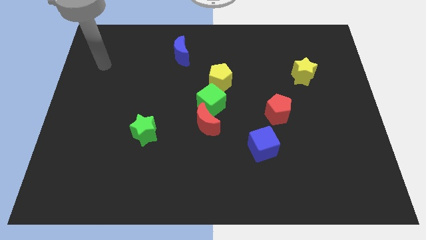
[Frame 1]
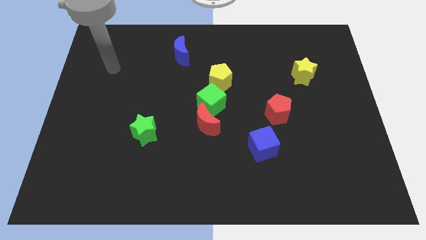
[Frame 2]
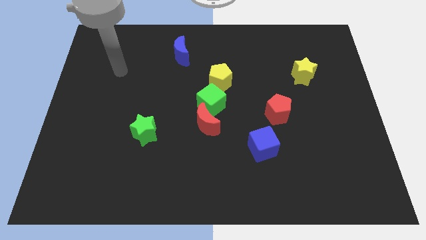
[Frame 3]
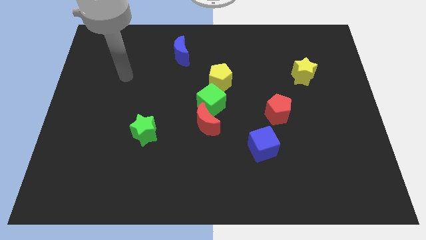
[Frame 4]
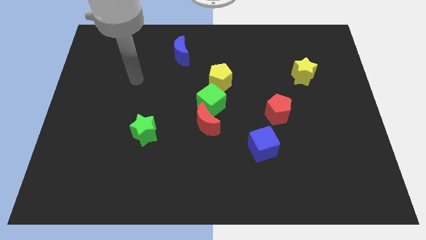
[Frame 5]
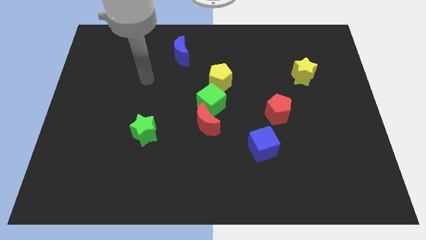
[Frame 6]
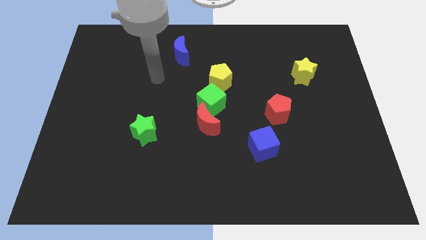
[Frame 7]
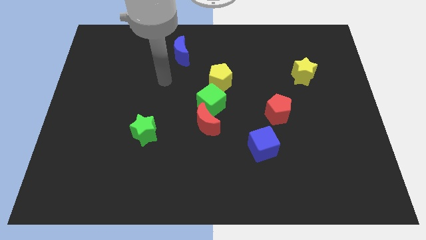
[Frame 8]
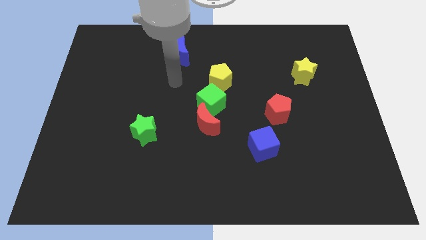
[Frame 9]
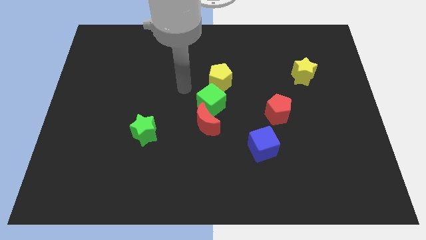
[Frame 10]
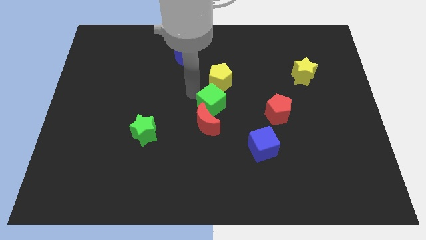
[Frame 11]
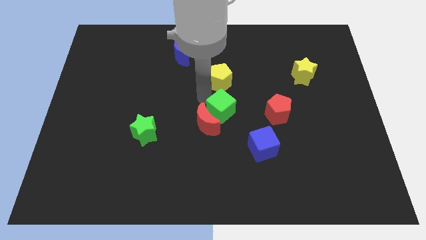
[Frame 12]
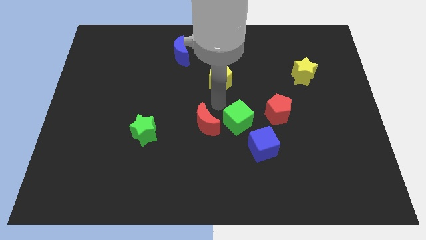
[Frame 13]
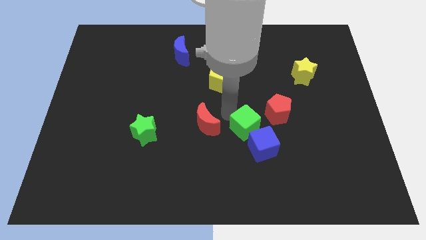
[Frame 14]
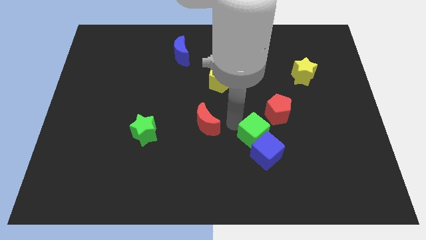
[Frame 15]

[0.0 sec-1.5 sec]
separate the red moon from the green cube

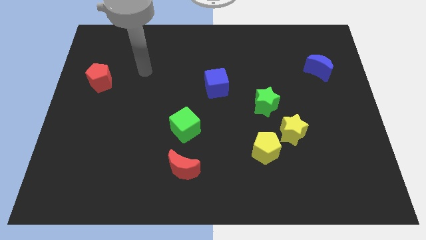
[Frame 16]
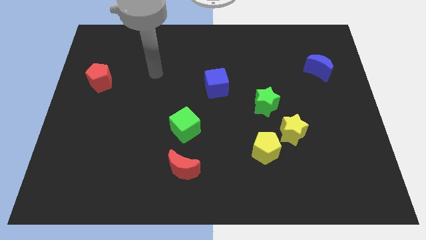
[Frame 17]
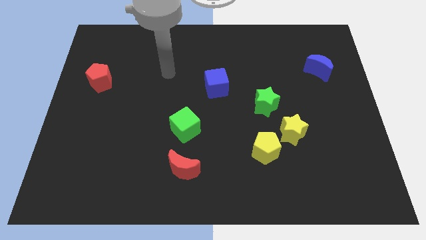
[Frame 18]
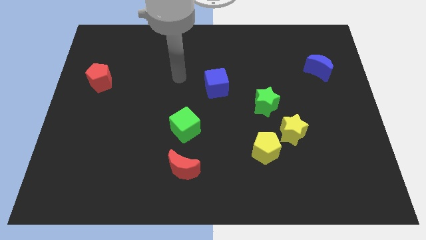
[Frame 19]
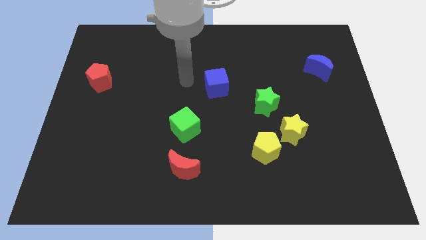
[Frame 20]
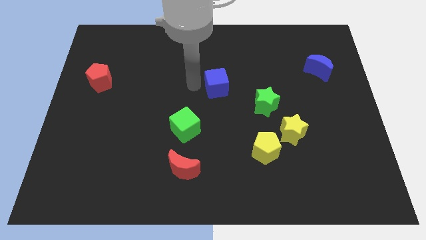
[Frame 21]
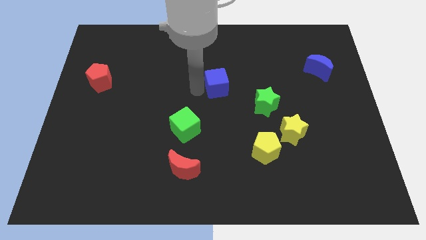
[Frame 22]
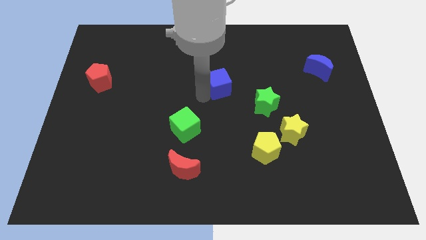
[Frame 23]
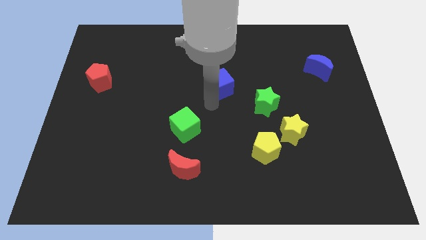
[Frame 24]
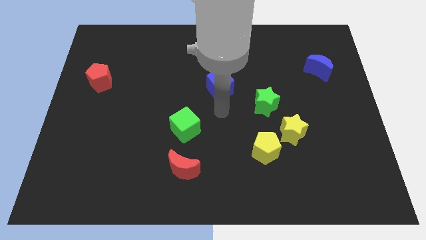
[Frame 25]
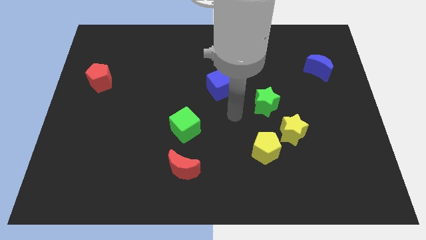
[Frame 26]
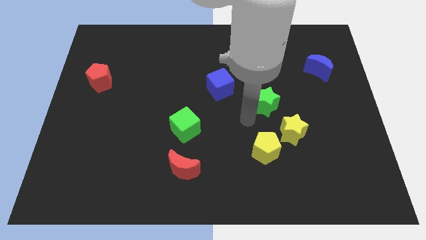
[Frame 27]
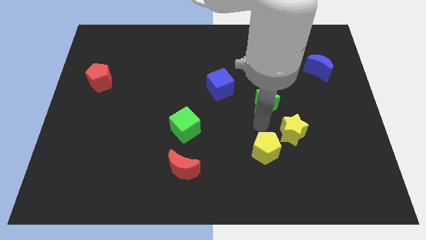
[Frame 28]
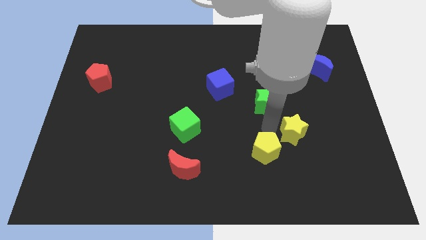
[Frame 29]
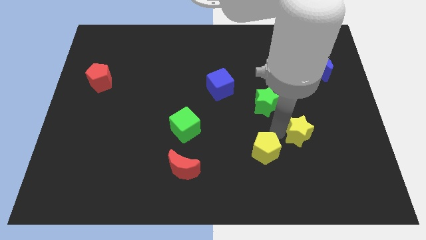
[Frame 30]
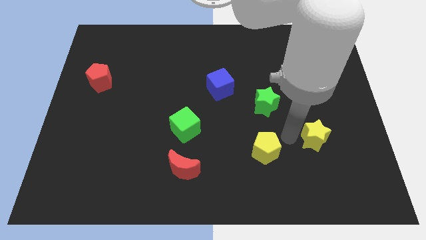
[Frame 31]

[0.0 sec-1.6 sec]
move the yellow pentagon away from the yellow star

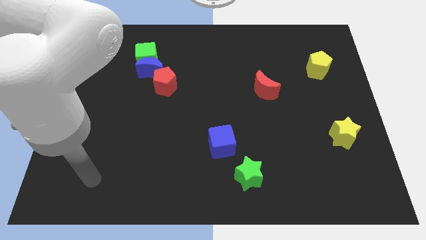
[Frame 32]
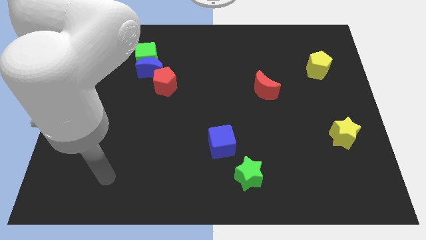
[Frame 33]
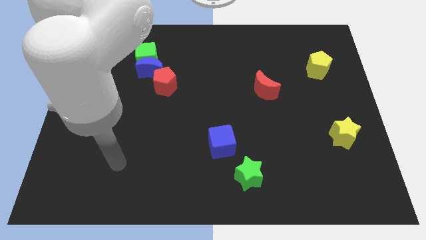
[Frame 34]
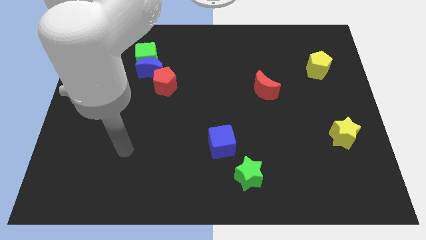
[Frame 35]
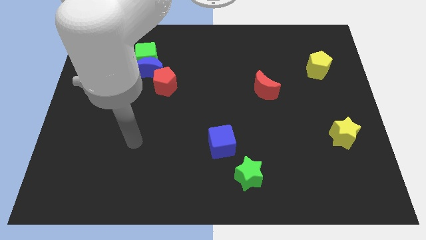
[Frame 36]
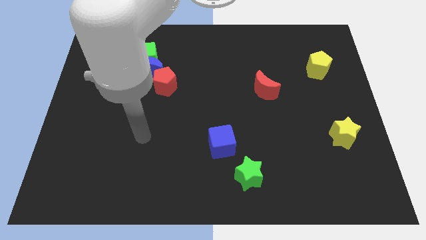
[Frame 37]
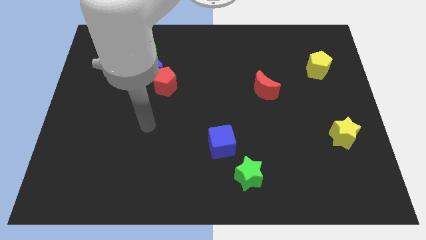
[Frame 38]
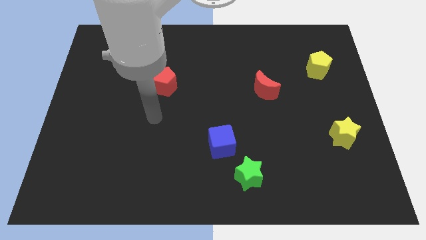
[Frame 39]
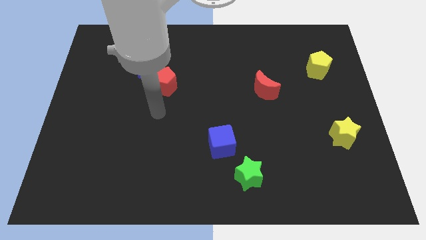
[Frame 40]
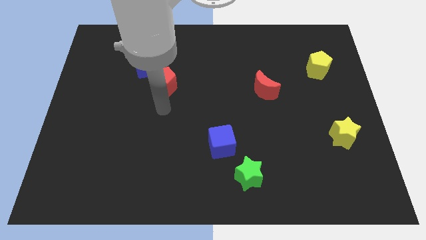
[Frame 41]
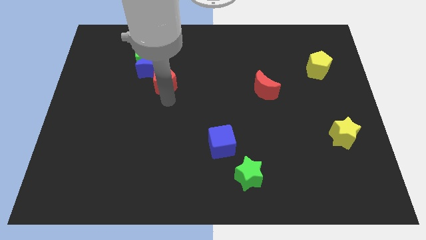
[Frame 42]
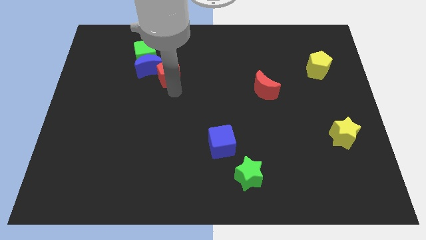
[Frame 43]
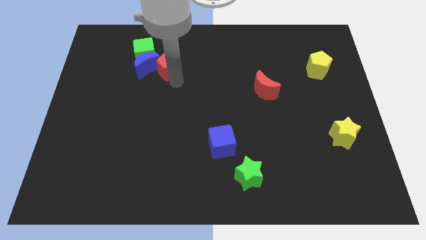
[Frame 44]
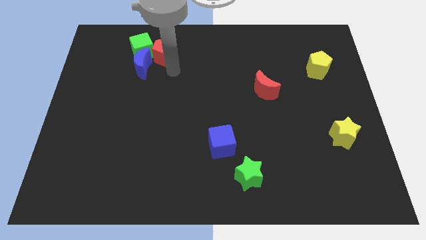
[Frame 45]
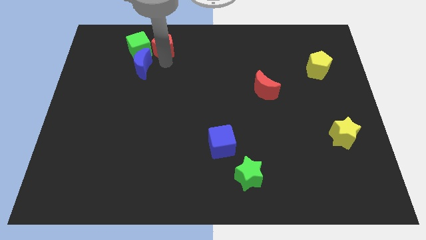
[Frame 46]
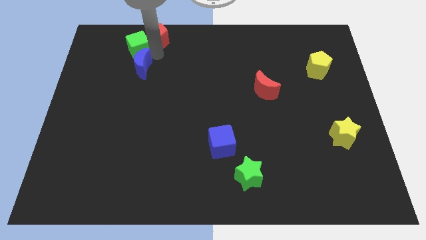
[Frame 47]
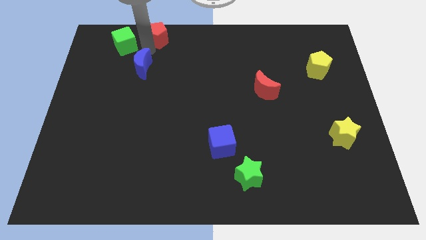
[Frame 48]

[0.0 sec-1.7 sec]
separate the blue moon from the green cube and red pentagon

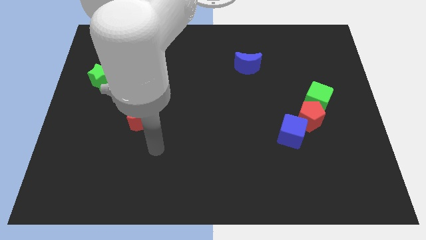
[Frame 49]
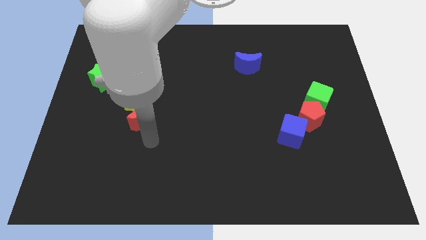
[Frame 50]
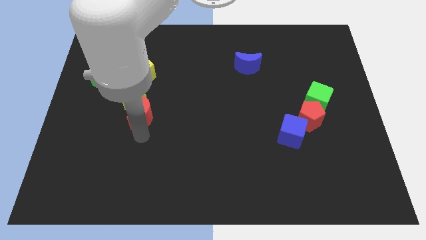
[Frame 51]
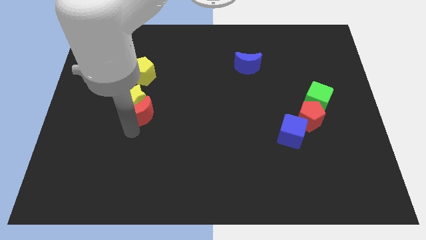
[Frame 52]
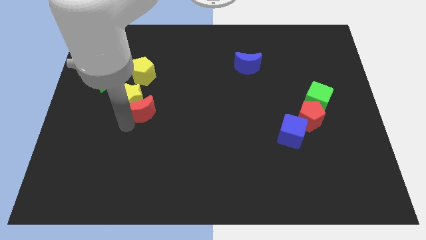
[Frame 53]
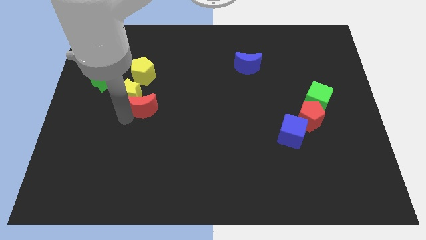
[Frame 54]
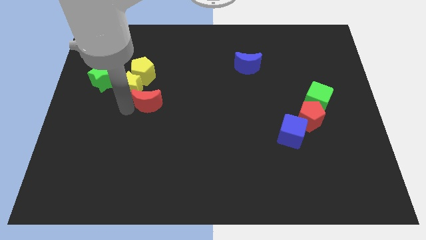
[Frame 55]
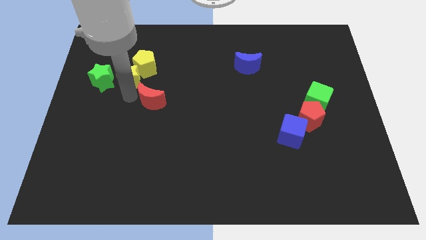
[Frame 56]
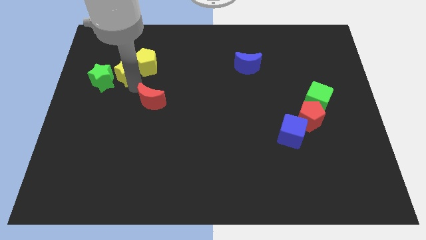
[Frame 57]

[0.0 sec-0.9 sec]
move the red moon away from the yellow star

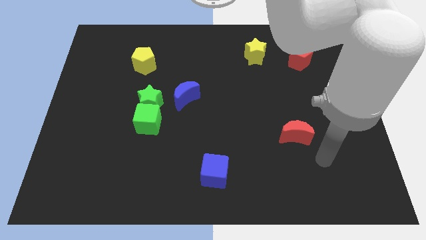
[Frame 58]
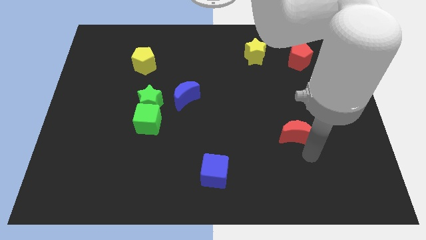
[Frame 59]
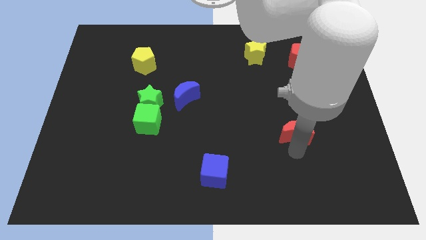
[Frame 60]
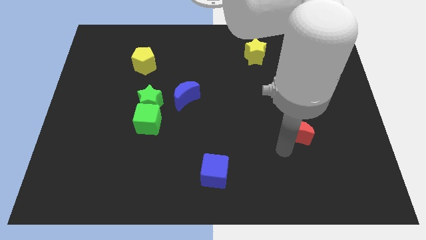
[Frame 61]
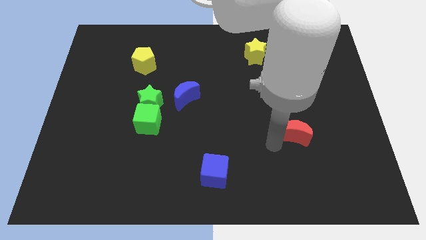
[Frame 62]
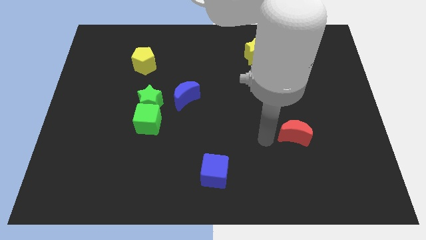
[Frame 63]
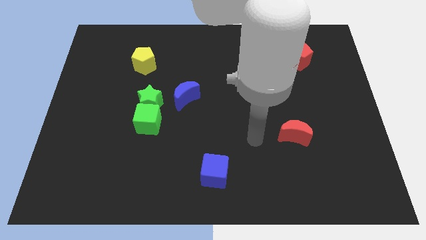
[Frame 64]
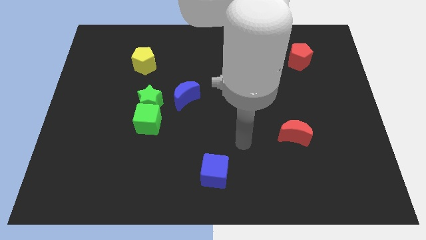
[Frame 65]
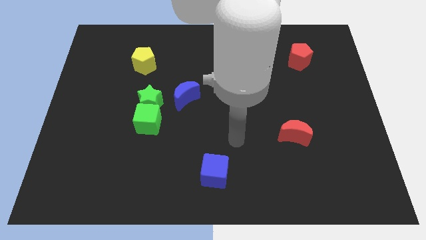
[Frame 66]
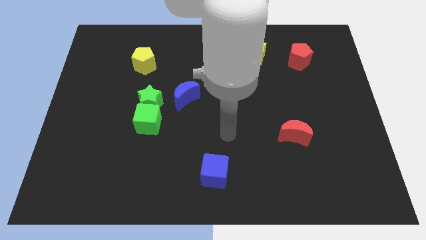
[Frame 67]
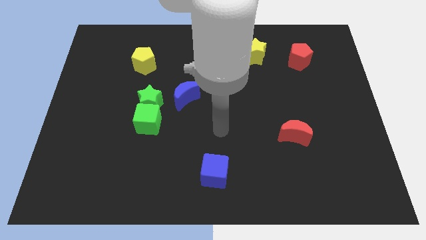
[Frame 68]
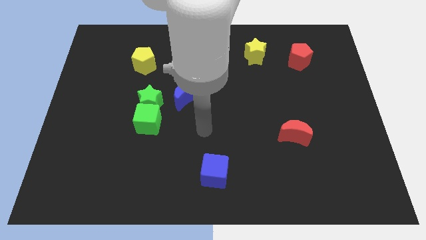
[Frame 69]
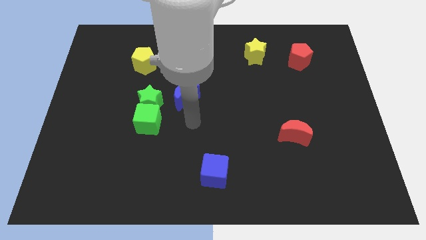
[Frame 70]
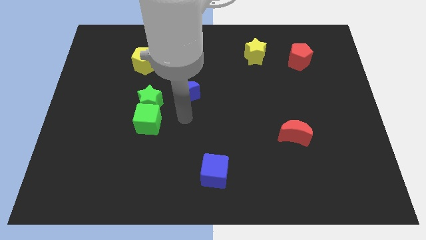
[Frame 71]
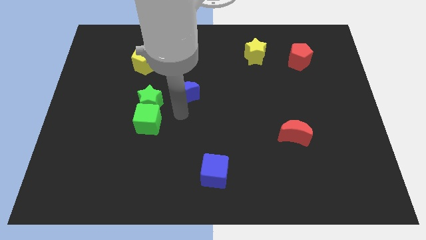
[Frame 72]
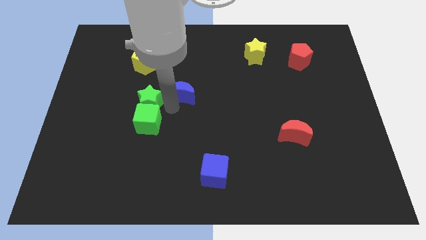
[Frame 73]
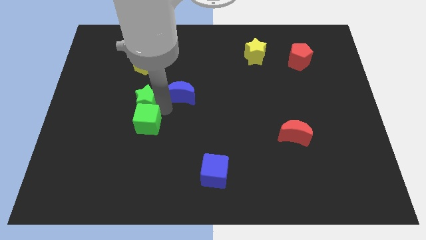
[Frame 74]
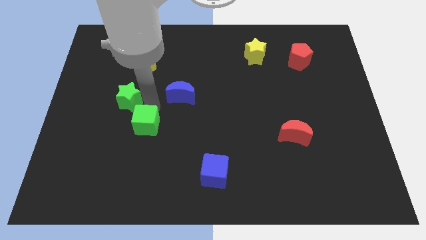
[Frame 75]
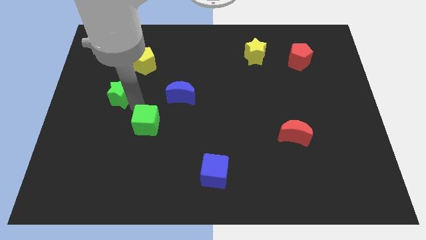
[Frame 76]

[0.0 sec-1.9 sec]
move the green cube away from the green star

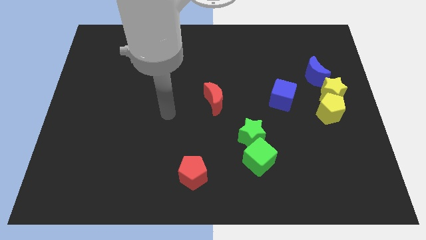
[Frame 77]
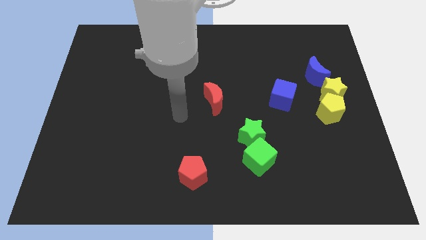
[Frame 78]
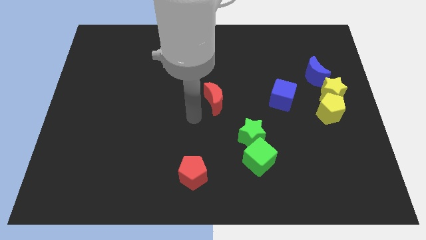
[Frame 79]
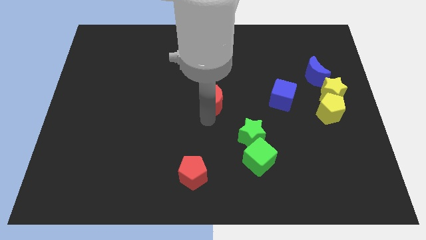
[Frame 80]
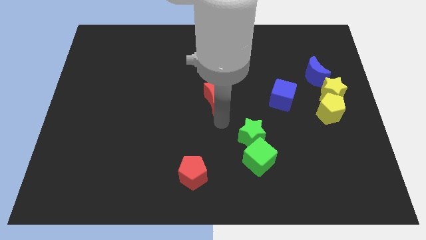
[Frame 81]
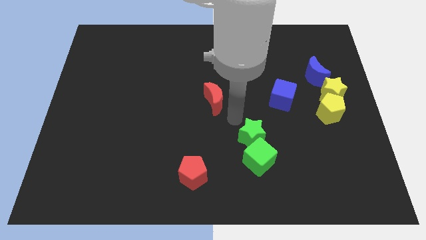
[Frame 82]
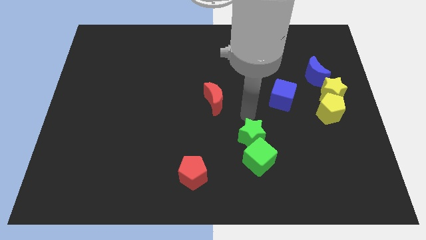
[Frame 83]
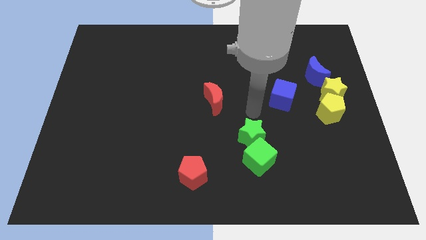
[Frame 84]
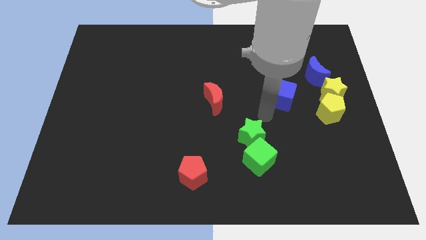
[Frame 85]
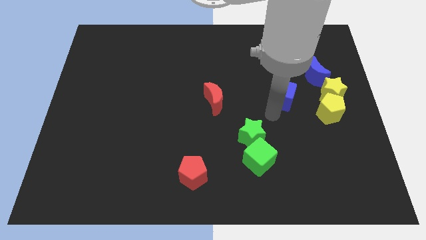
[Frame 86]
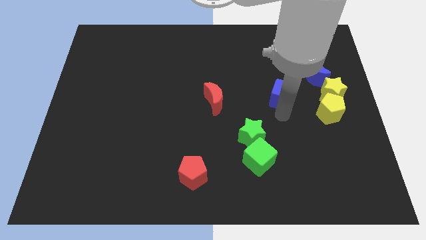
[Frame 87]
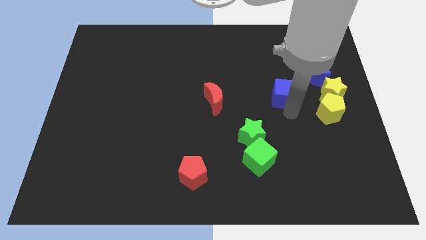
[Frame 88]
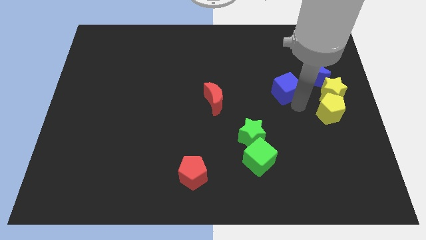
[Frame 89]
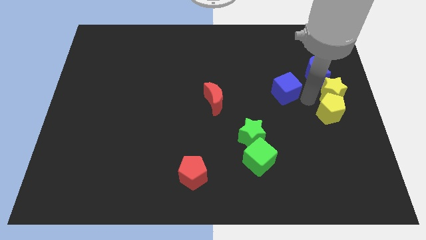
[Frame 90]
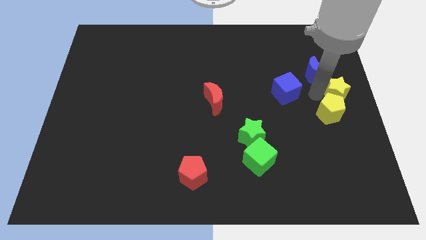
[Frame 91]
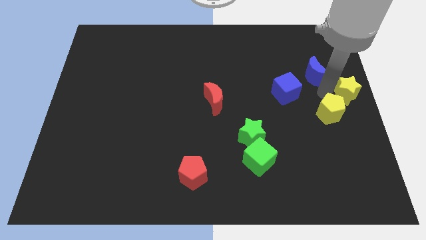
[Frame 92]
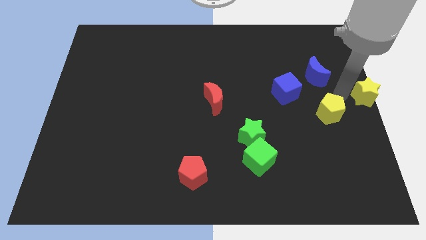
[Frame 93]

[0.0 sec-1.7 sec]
pull the yellow pentagon apart from the yellow star
